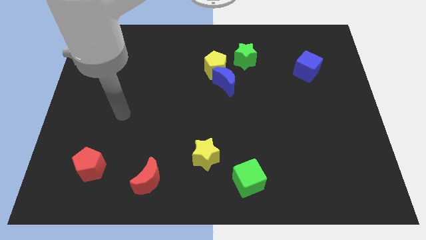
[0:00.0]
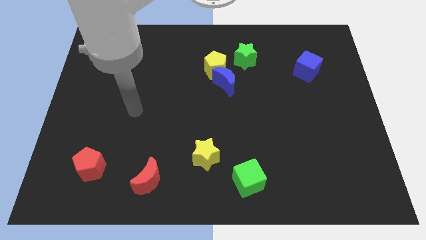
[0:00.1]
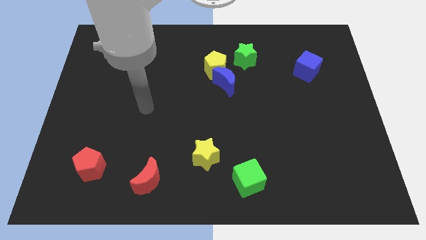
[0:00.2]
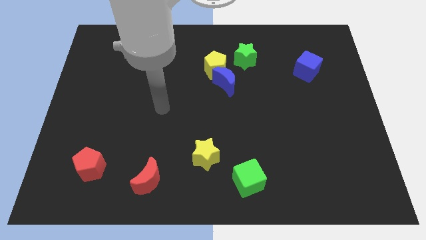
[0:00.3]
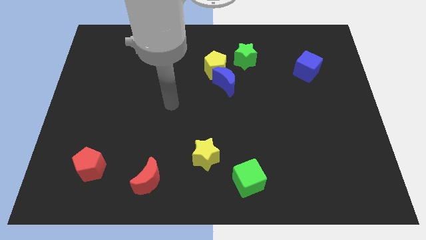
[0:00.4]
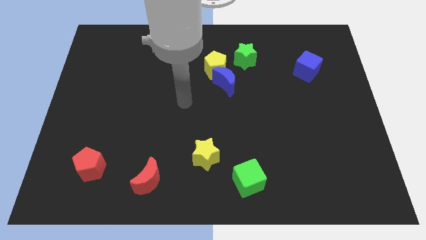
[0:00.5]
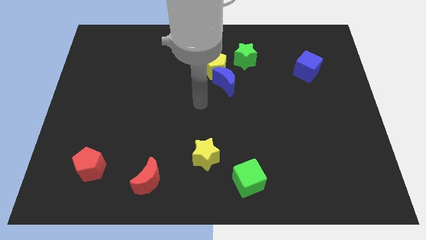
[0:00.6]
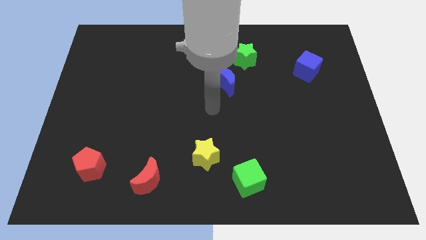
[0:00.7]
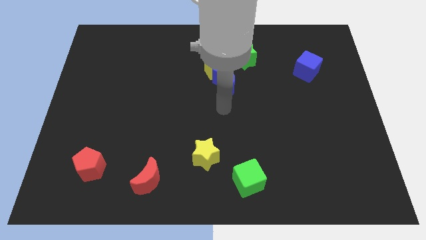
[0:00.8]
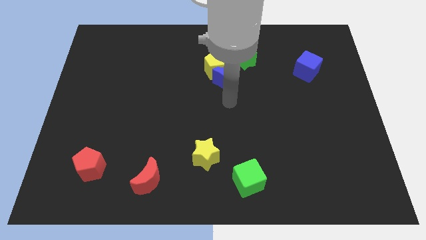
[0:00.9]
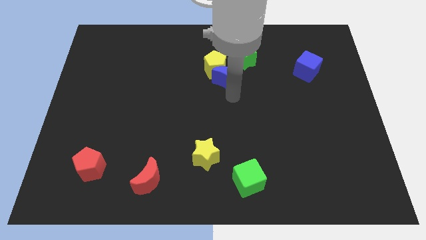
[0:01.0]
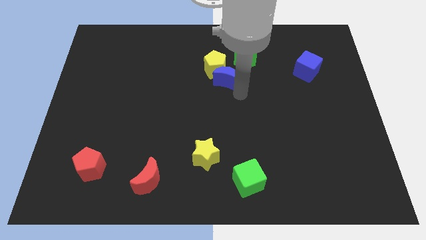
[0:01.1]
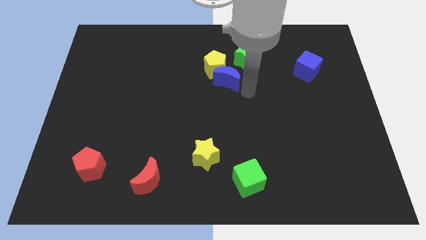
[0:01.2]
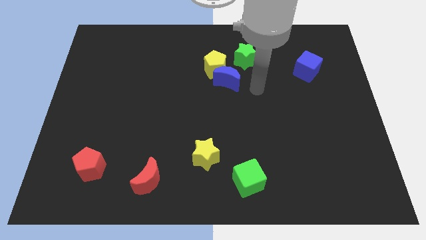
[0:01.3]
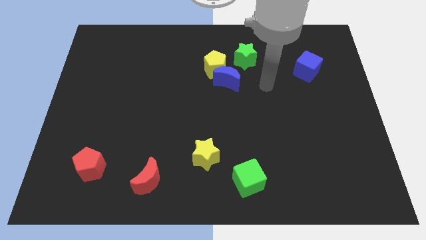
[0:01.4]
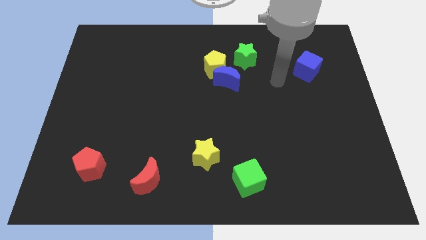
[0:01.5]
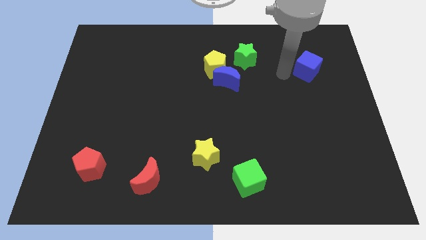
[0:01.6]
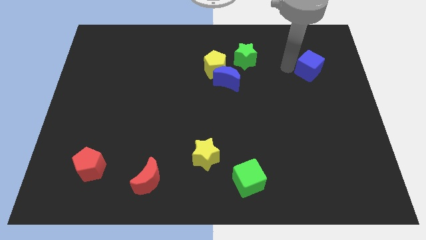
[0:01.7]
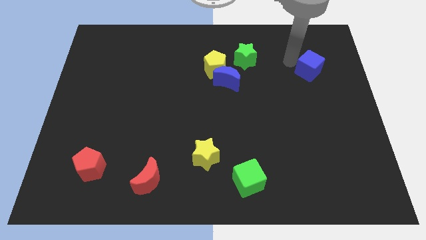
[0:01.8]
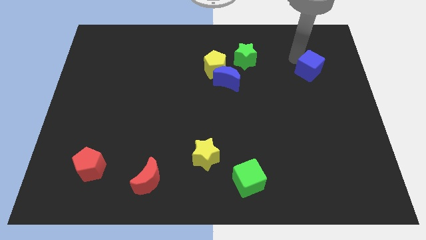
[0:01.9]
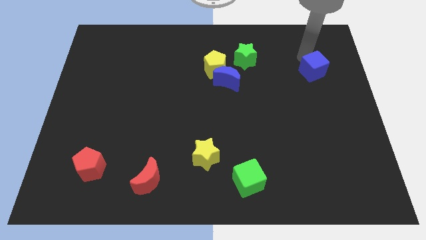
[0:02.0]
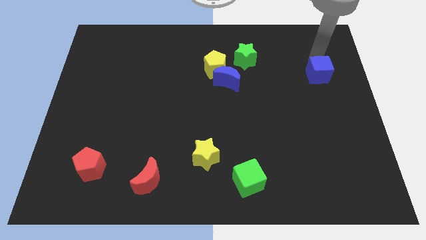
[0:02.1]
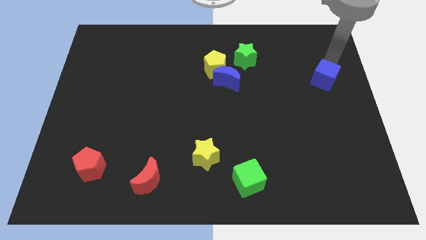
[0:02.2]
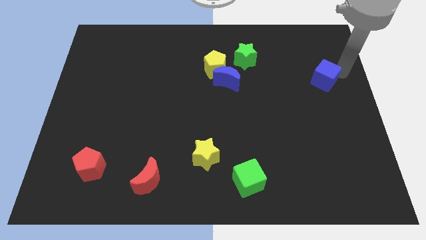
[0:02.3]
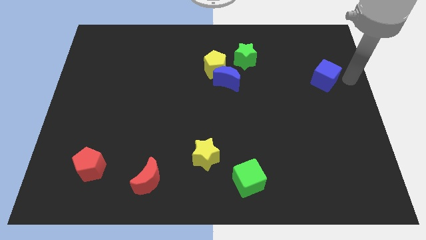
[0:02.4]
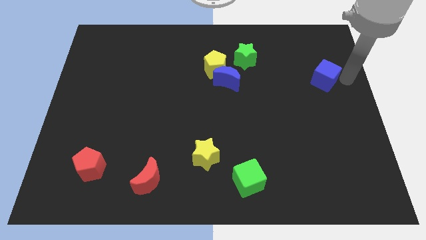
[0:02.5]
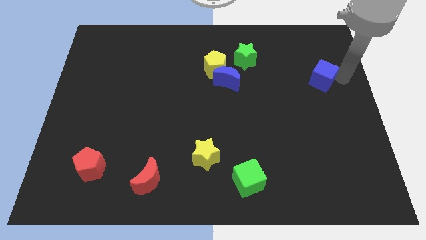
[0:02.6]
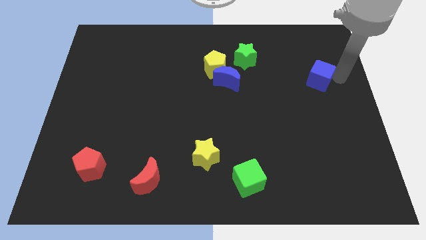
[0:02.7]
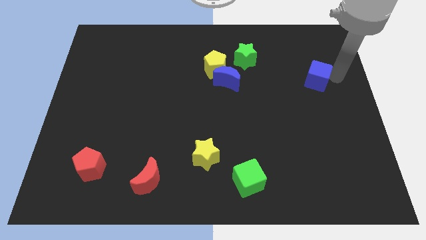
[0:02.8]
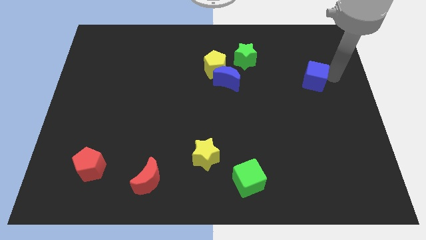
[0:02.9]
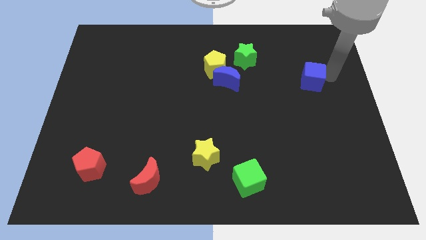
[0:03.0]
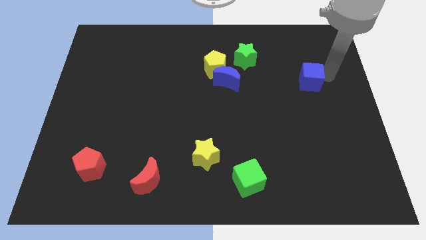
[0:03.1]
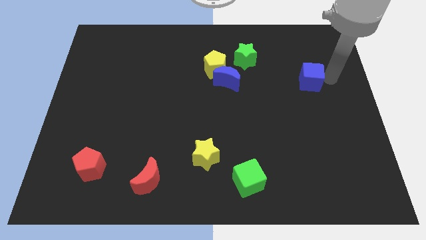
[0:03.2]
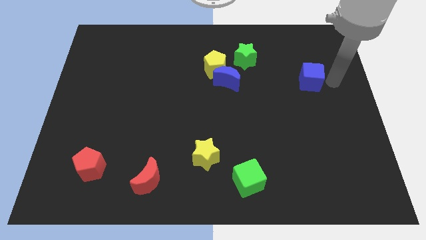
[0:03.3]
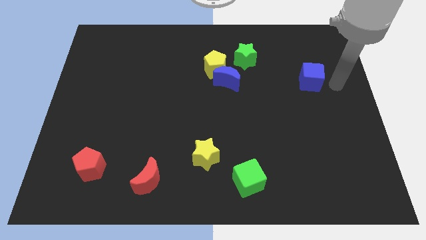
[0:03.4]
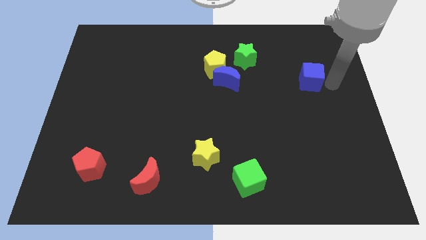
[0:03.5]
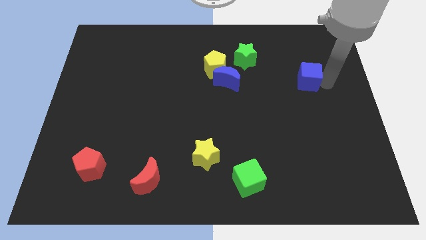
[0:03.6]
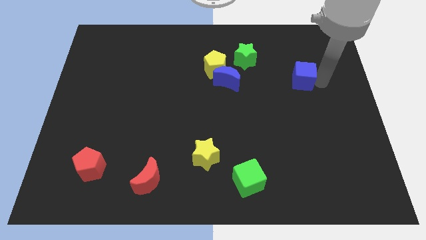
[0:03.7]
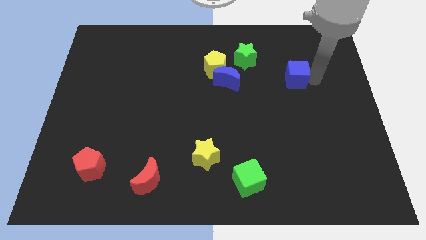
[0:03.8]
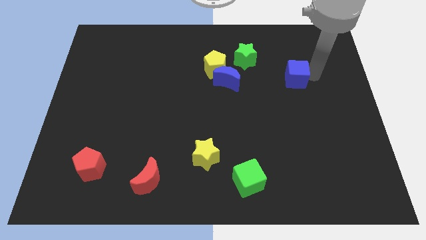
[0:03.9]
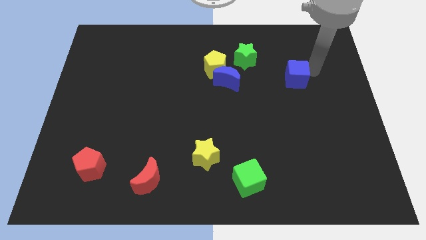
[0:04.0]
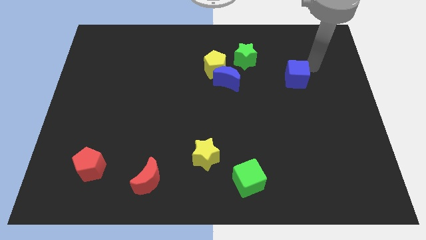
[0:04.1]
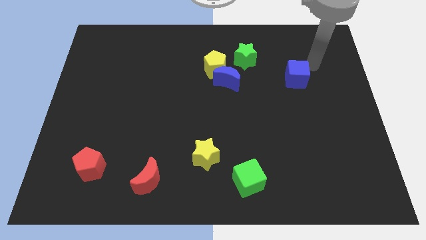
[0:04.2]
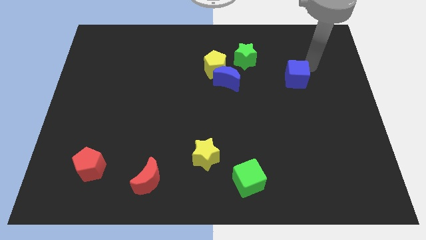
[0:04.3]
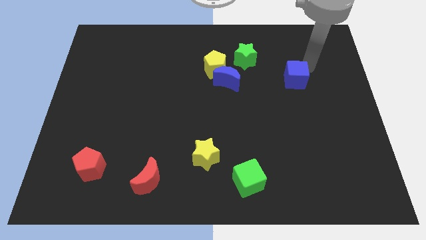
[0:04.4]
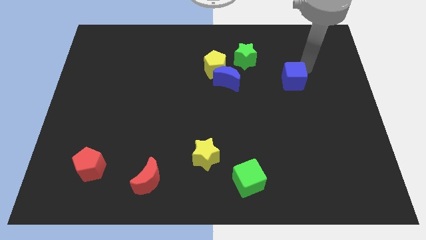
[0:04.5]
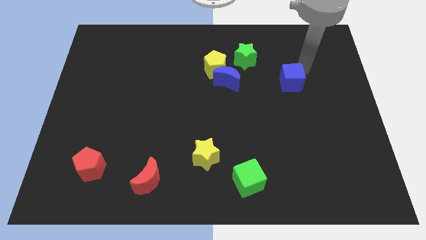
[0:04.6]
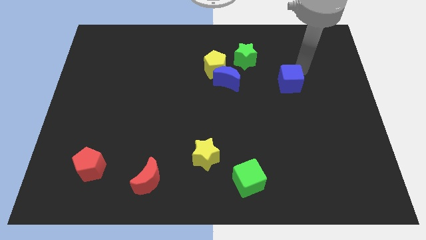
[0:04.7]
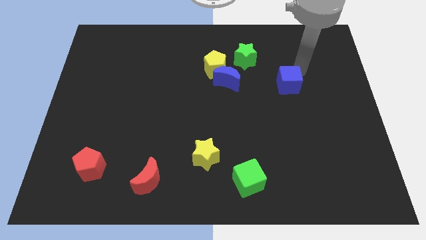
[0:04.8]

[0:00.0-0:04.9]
slide the blue cube downwards and then left slightly

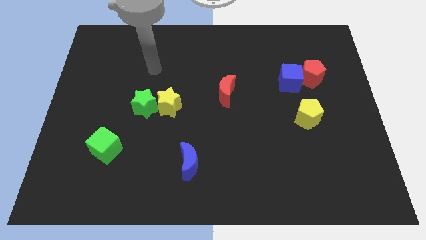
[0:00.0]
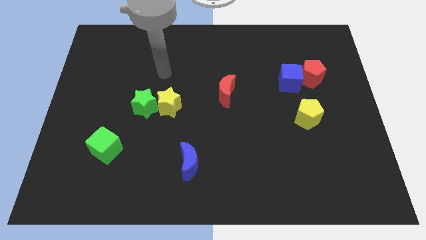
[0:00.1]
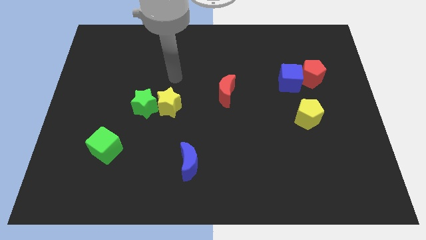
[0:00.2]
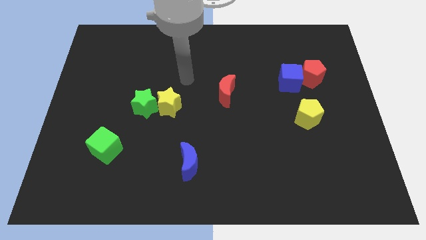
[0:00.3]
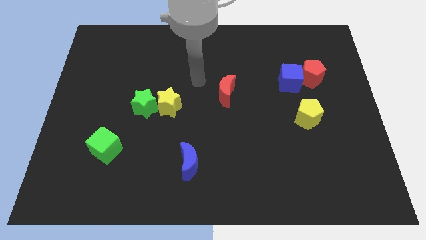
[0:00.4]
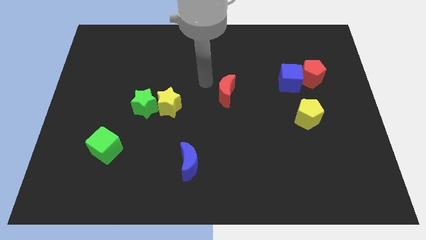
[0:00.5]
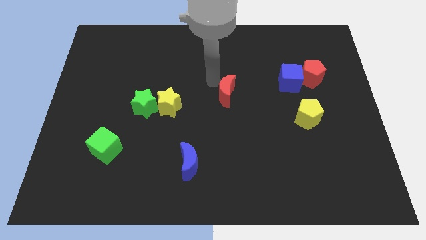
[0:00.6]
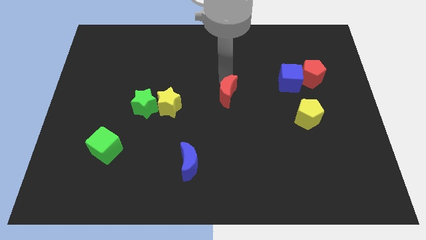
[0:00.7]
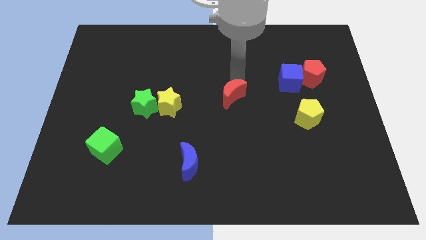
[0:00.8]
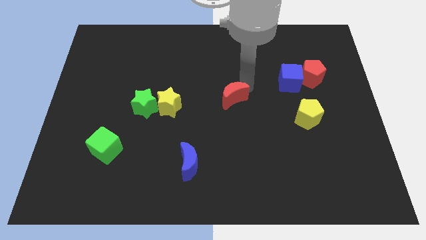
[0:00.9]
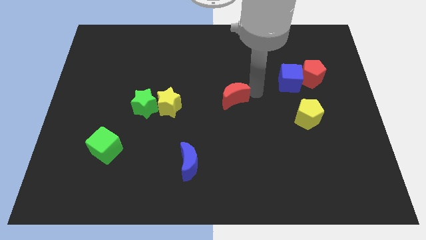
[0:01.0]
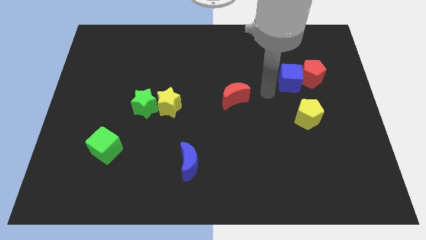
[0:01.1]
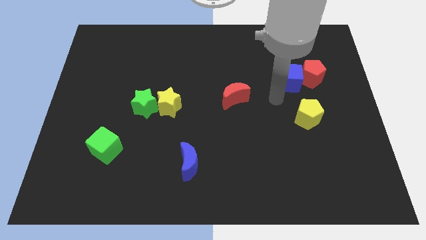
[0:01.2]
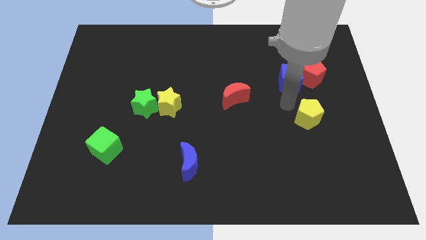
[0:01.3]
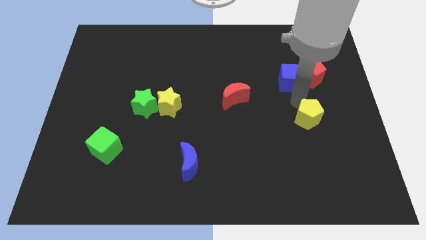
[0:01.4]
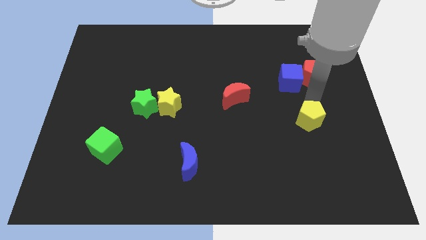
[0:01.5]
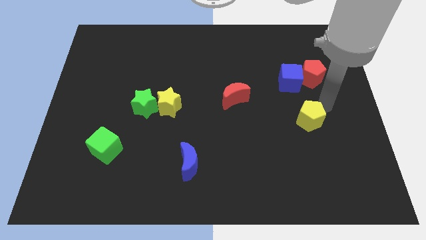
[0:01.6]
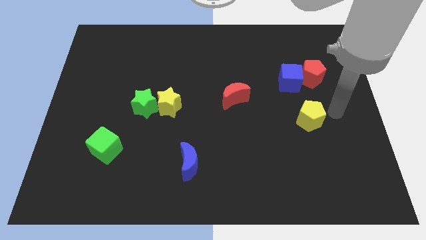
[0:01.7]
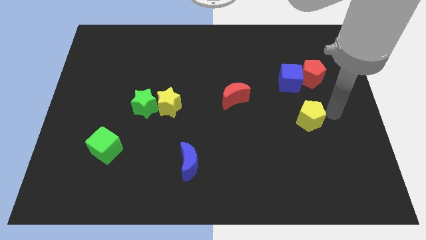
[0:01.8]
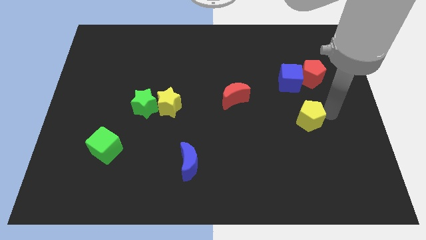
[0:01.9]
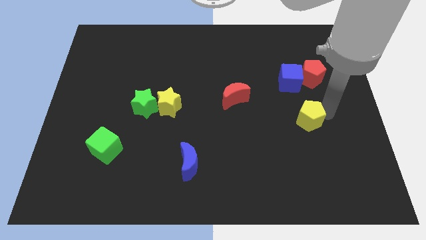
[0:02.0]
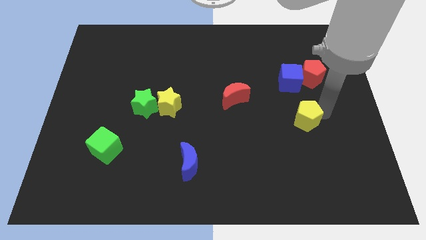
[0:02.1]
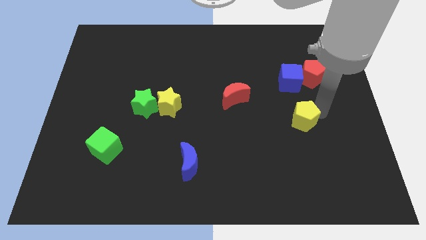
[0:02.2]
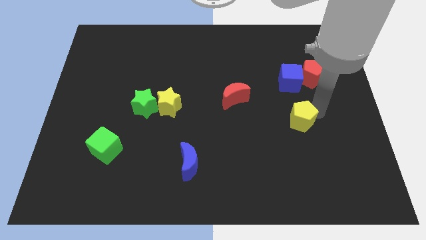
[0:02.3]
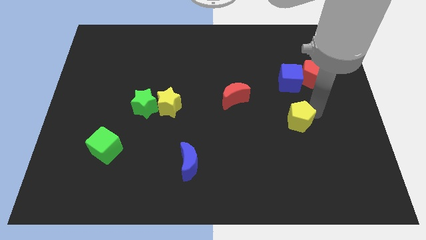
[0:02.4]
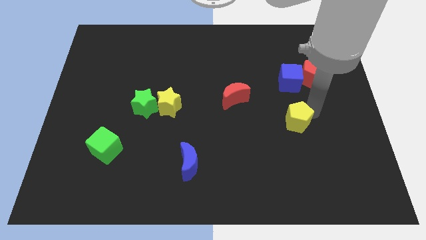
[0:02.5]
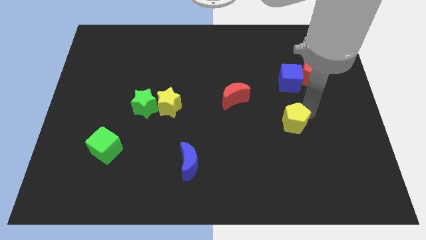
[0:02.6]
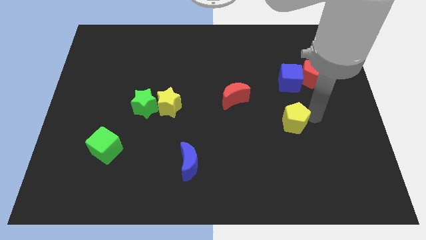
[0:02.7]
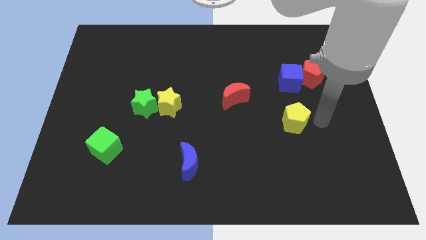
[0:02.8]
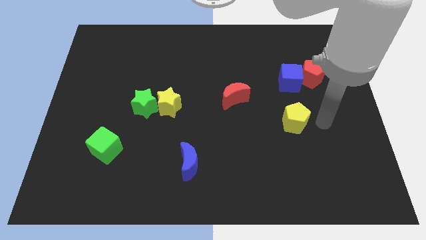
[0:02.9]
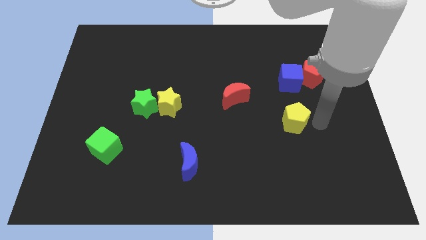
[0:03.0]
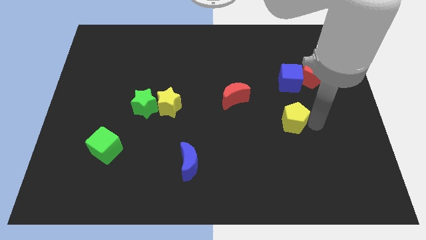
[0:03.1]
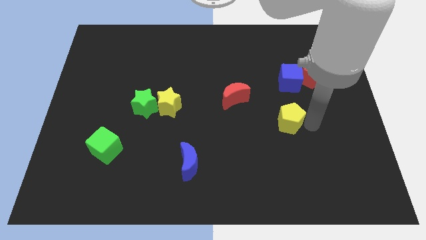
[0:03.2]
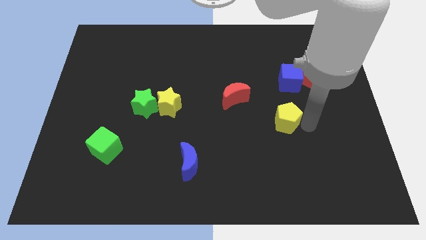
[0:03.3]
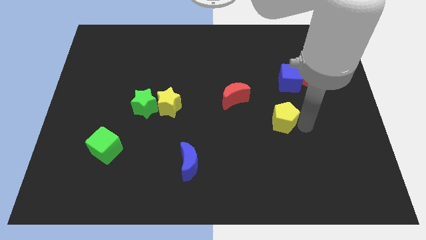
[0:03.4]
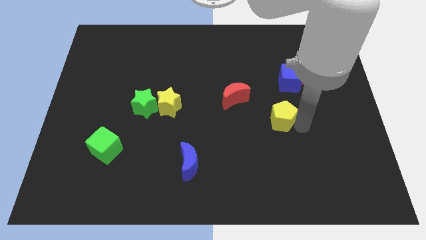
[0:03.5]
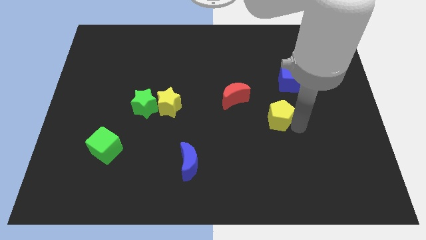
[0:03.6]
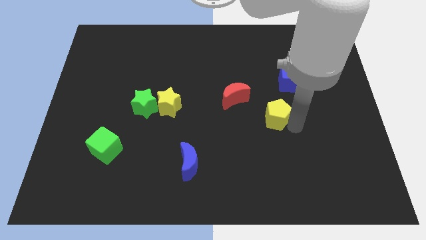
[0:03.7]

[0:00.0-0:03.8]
slide the yellow pentagon a little bit left

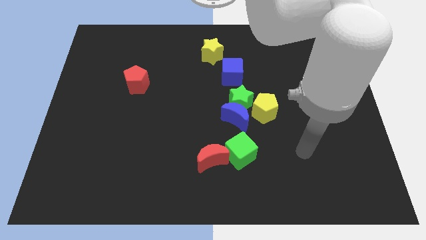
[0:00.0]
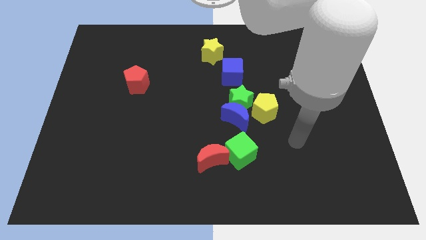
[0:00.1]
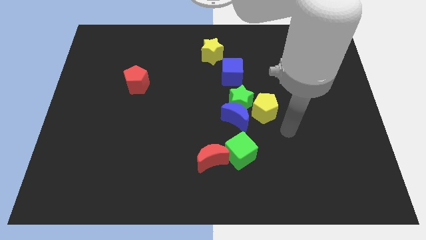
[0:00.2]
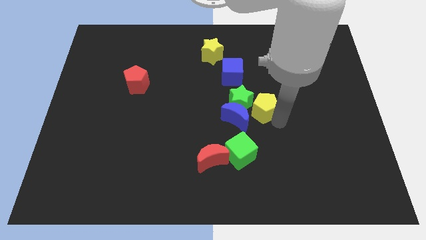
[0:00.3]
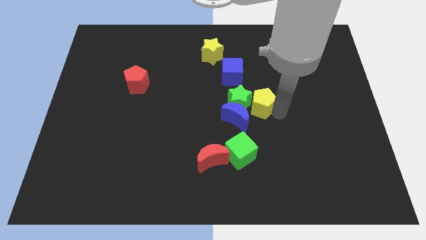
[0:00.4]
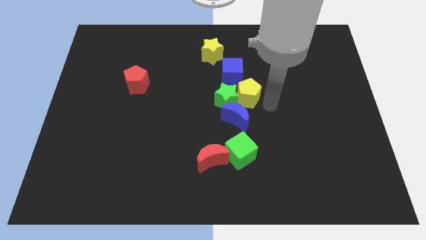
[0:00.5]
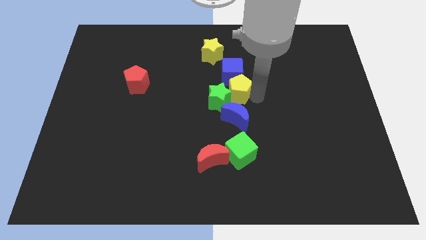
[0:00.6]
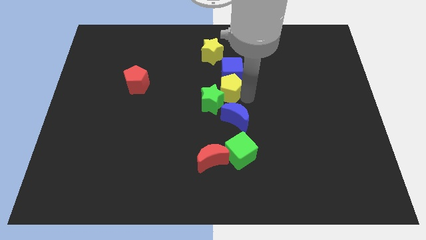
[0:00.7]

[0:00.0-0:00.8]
slightly move the green star to the left
